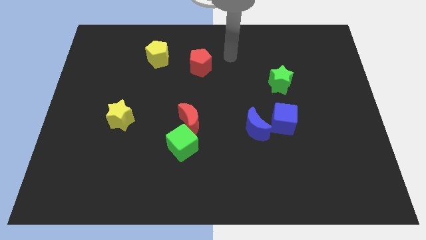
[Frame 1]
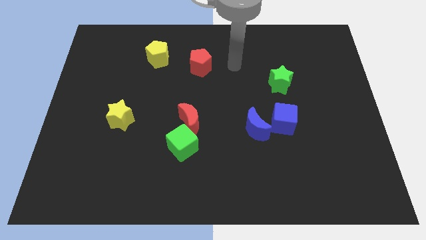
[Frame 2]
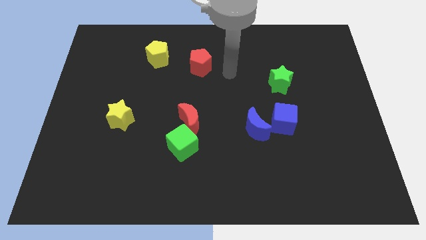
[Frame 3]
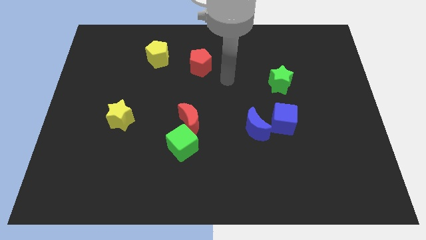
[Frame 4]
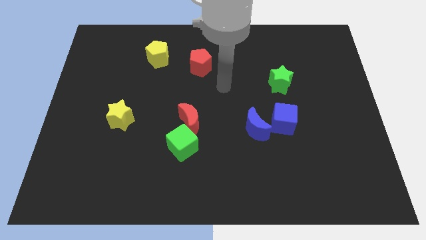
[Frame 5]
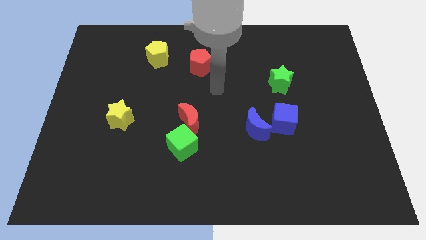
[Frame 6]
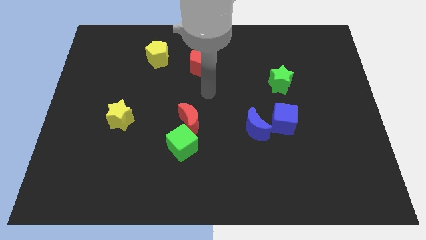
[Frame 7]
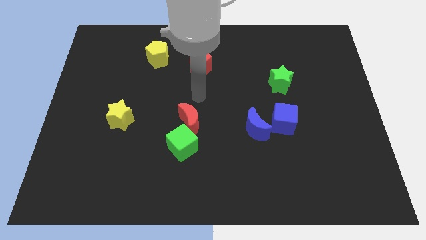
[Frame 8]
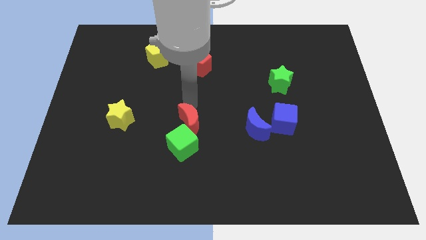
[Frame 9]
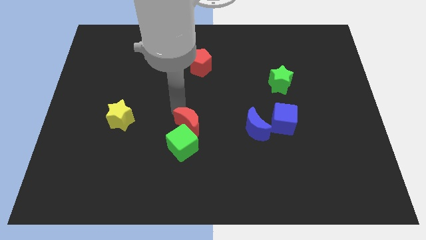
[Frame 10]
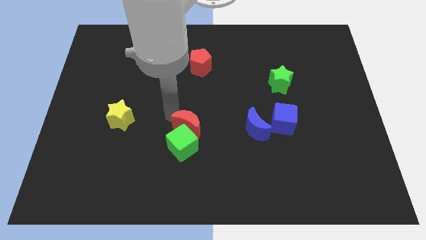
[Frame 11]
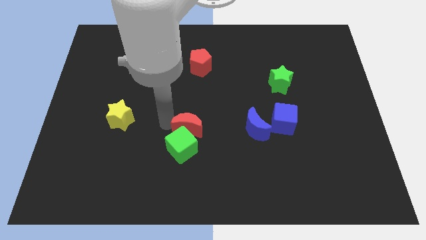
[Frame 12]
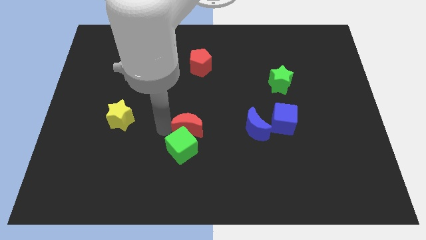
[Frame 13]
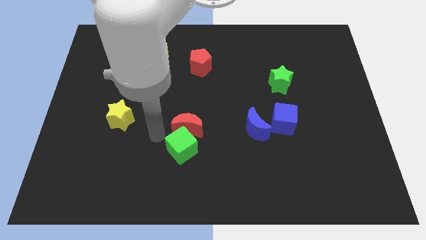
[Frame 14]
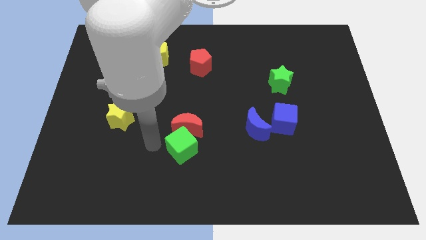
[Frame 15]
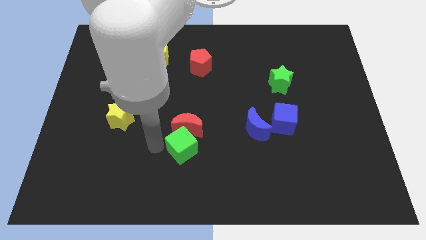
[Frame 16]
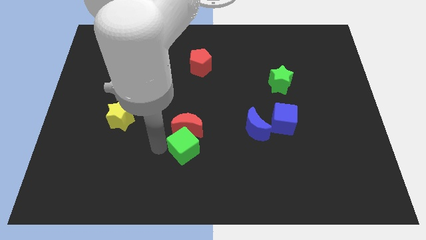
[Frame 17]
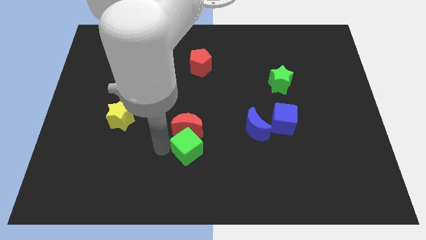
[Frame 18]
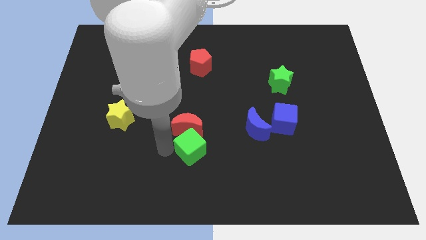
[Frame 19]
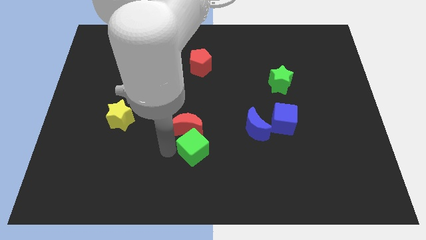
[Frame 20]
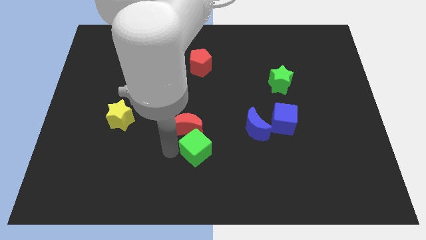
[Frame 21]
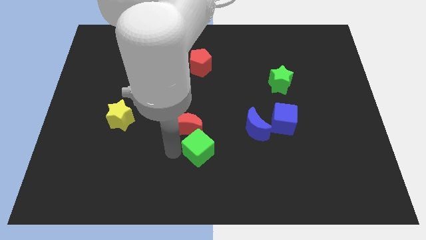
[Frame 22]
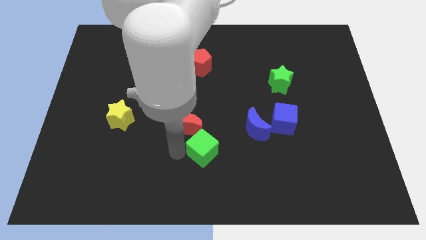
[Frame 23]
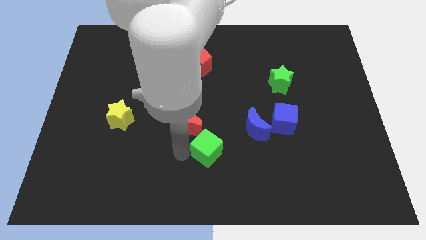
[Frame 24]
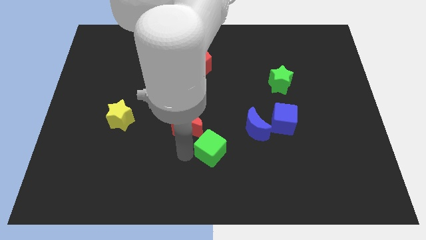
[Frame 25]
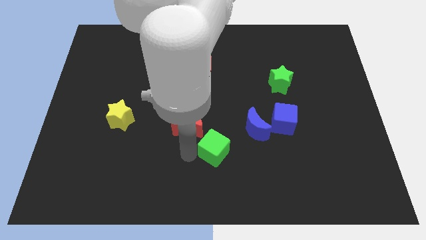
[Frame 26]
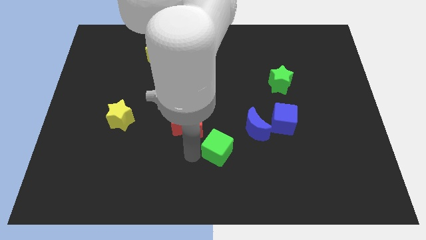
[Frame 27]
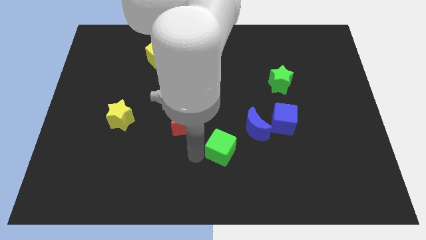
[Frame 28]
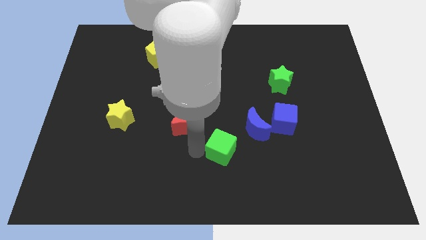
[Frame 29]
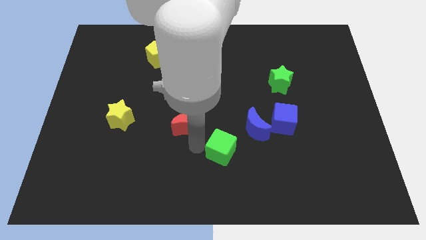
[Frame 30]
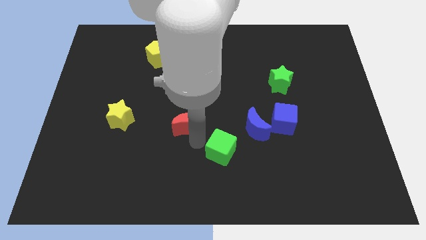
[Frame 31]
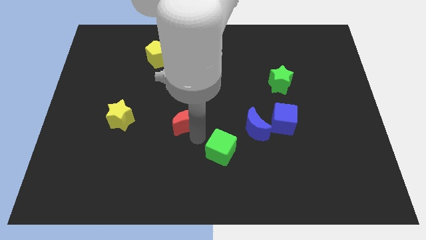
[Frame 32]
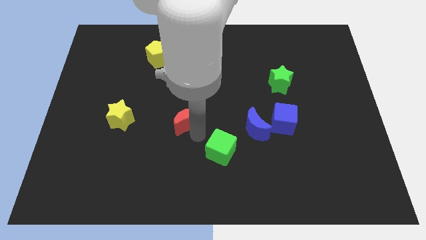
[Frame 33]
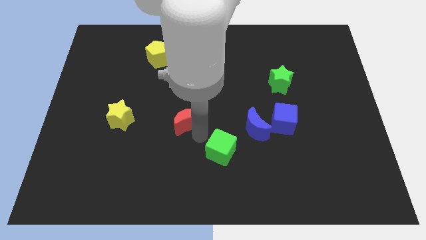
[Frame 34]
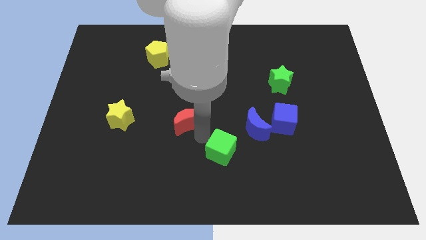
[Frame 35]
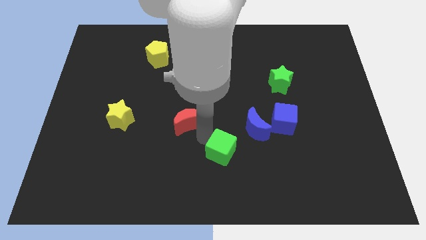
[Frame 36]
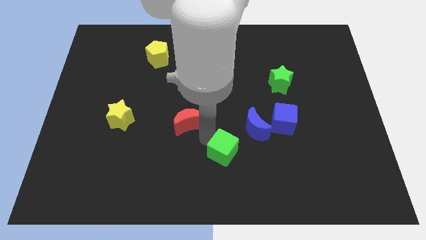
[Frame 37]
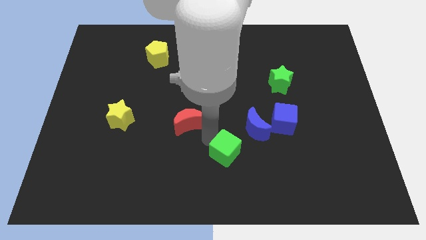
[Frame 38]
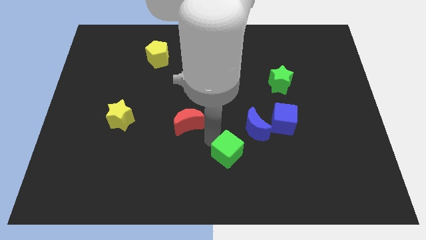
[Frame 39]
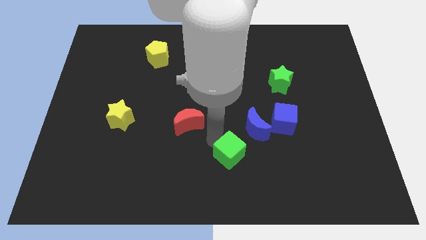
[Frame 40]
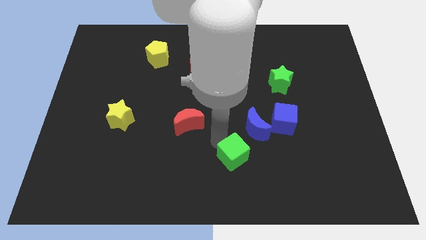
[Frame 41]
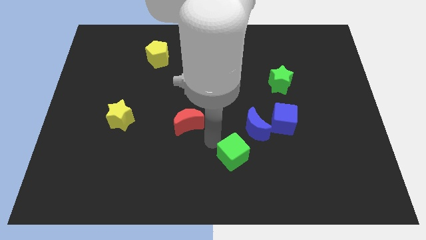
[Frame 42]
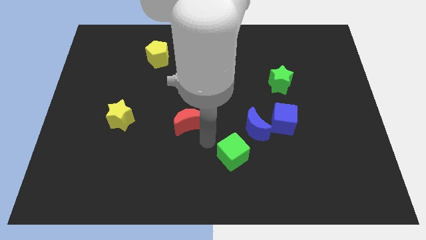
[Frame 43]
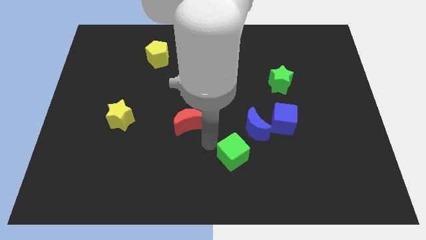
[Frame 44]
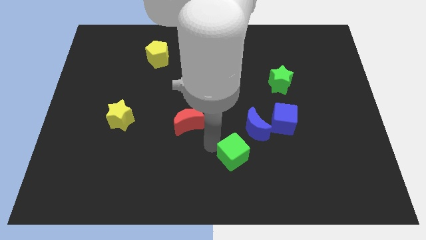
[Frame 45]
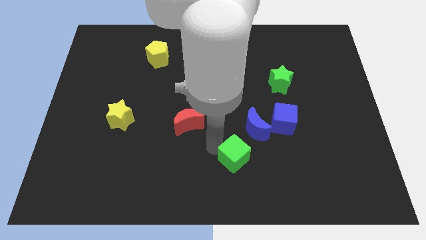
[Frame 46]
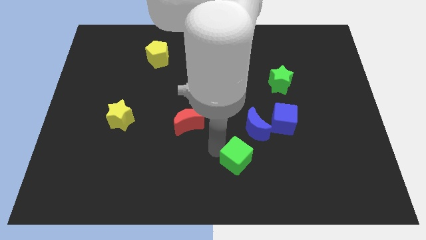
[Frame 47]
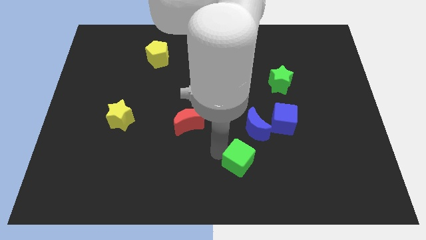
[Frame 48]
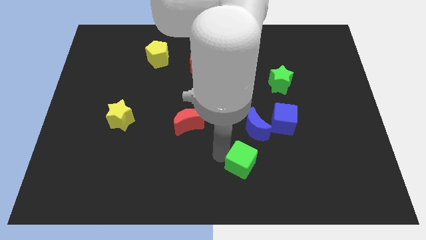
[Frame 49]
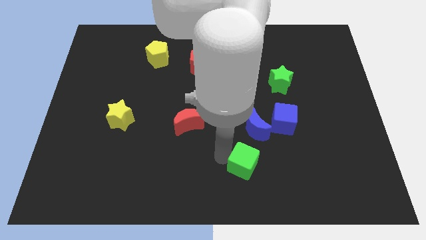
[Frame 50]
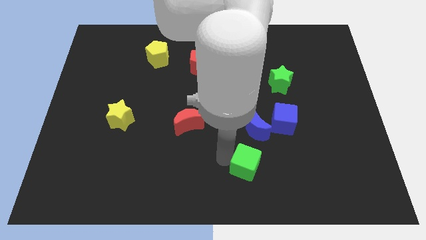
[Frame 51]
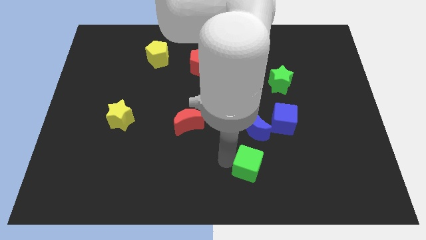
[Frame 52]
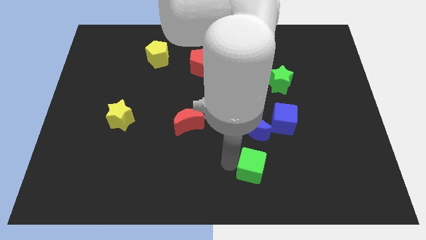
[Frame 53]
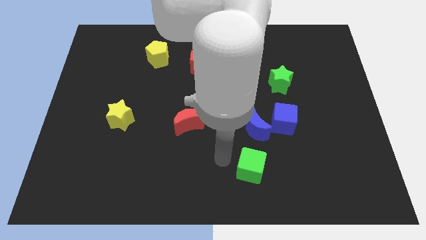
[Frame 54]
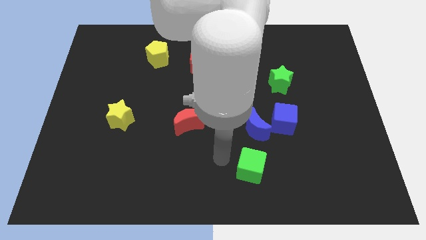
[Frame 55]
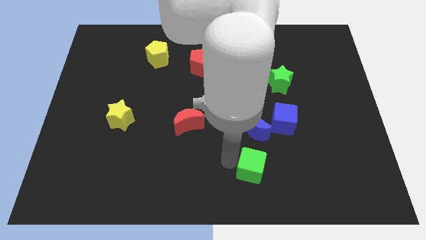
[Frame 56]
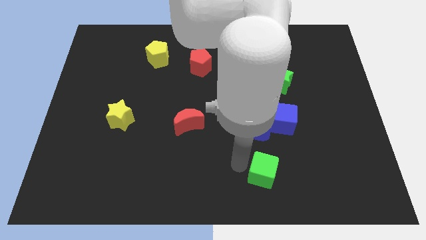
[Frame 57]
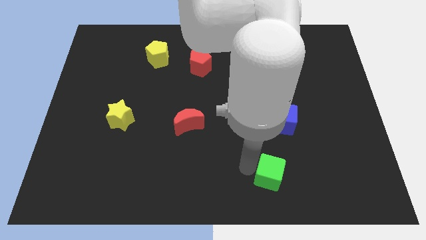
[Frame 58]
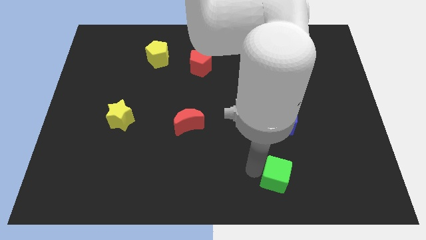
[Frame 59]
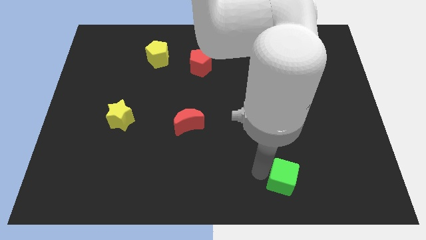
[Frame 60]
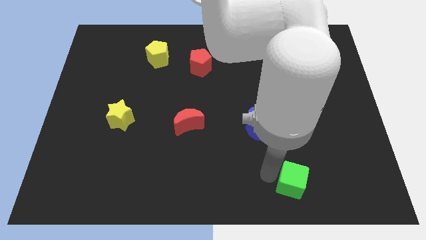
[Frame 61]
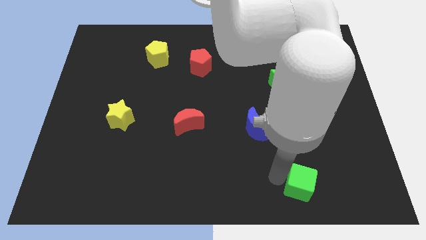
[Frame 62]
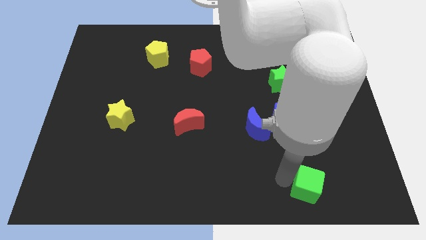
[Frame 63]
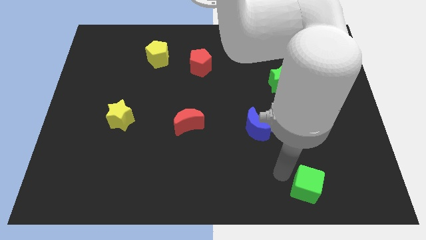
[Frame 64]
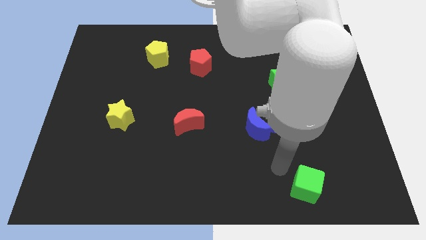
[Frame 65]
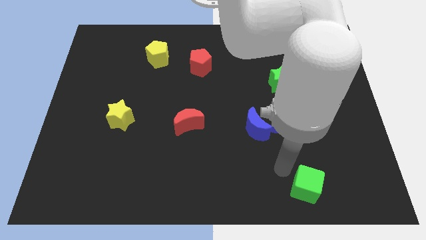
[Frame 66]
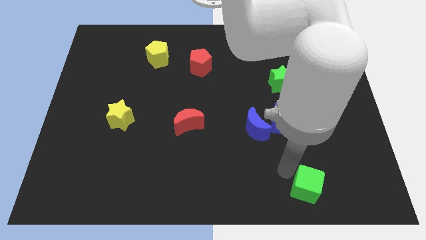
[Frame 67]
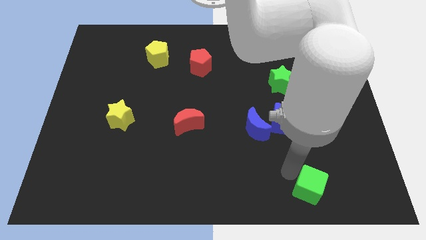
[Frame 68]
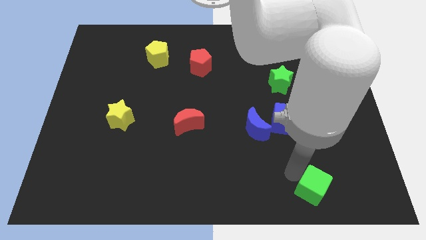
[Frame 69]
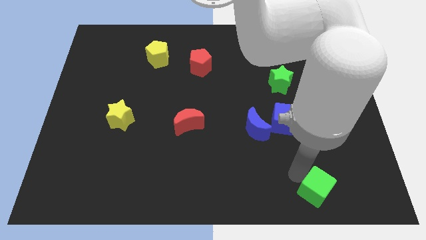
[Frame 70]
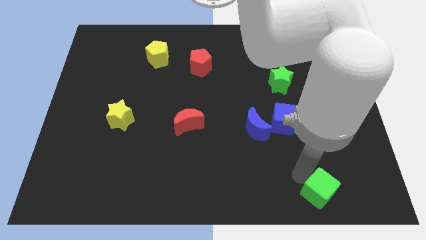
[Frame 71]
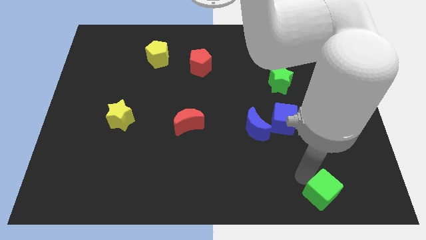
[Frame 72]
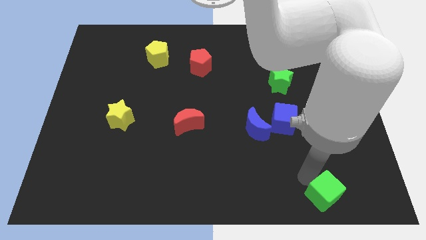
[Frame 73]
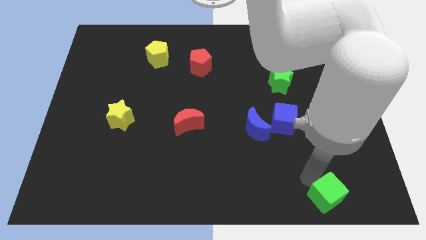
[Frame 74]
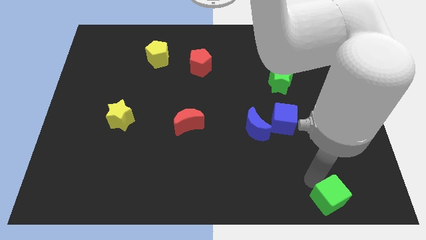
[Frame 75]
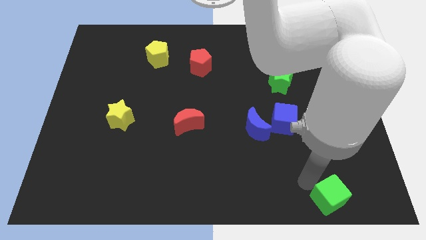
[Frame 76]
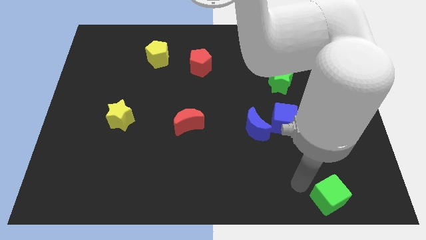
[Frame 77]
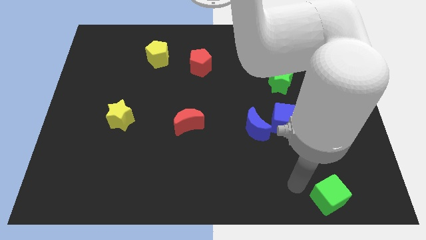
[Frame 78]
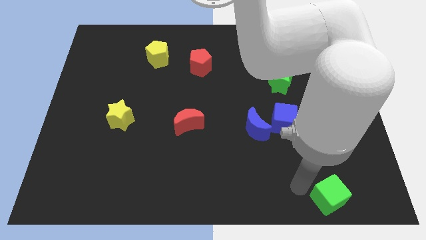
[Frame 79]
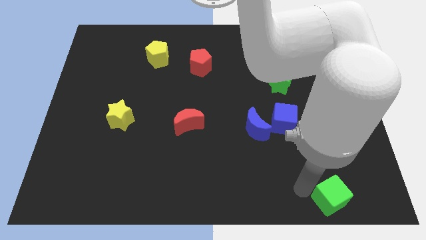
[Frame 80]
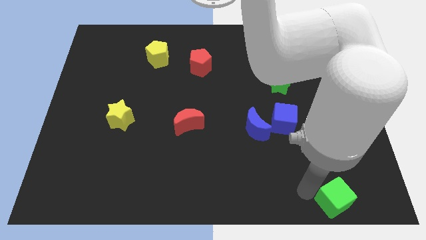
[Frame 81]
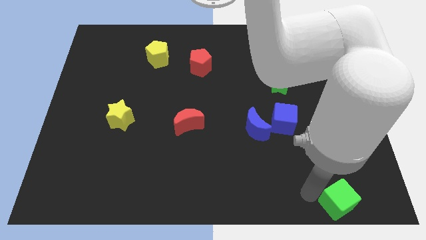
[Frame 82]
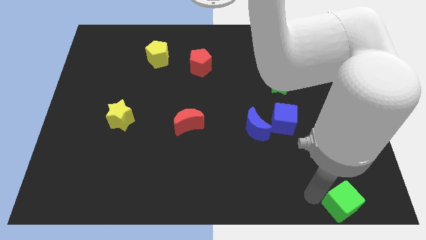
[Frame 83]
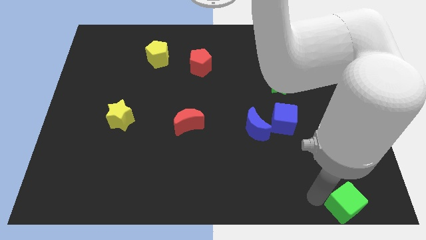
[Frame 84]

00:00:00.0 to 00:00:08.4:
slide the green cube to the bottom right of the board
